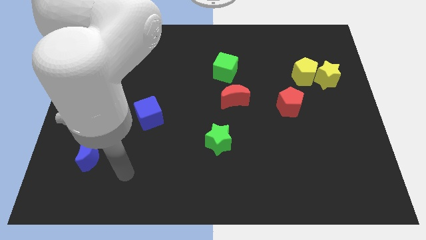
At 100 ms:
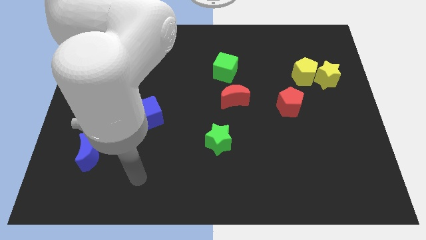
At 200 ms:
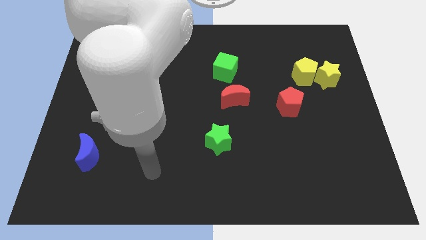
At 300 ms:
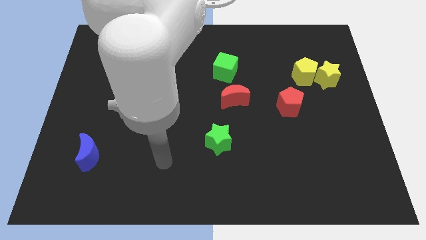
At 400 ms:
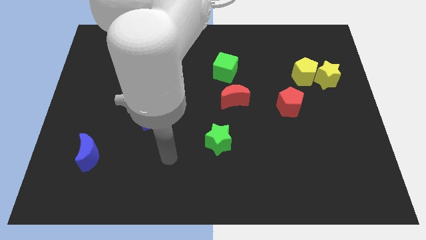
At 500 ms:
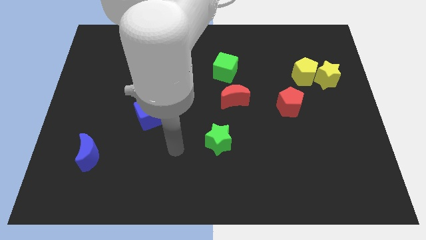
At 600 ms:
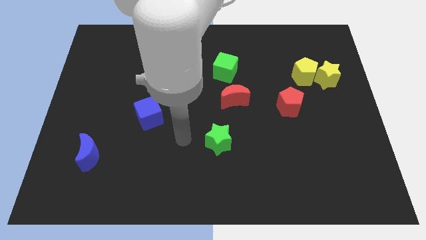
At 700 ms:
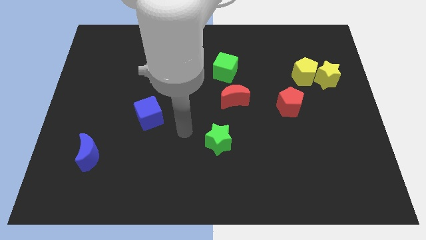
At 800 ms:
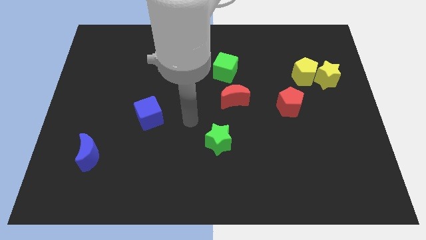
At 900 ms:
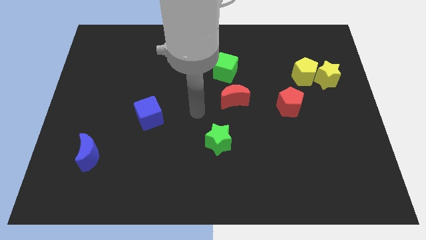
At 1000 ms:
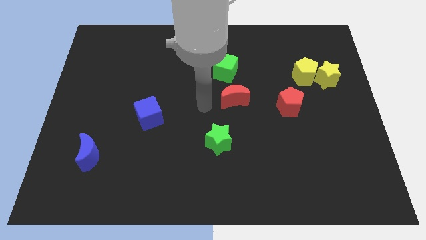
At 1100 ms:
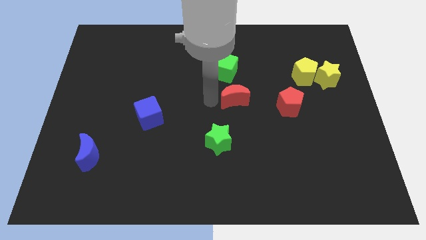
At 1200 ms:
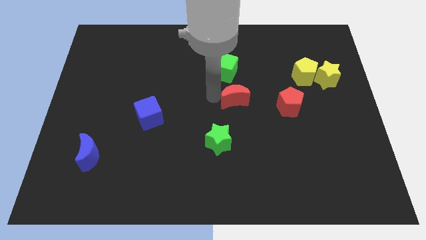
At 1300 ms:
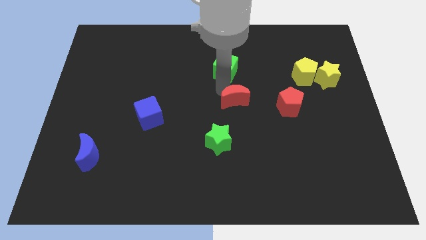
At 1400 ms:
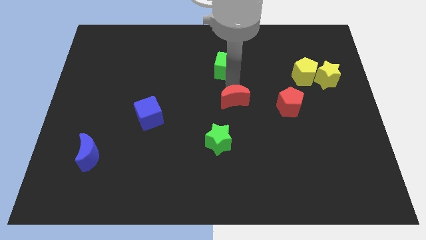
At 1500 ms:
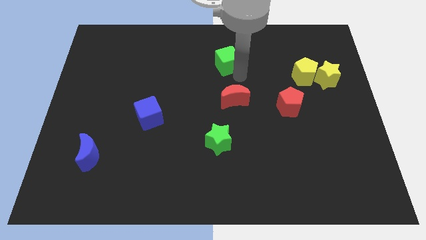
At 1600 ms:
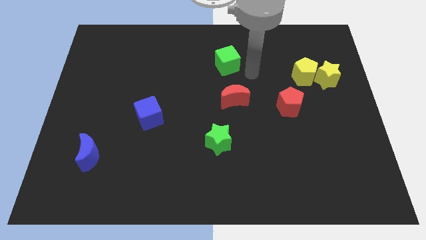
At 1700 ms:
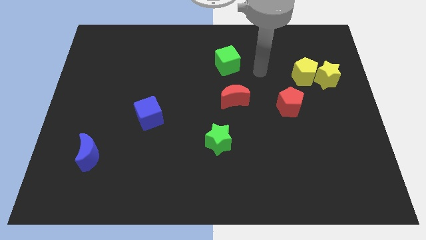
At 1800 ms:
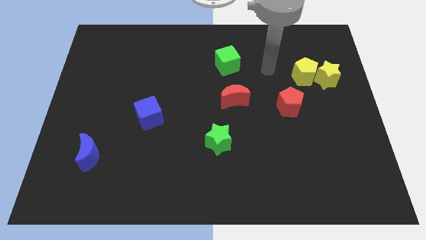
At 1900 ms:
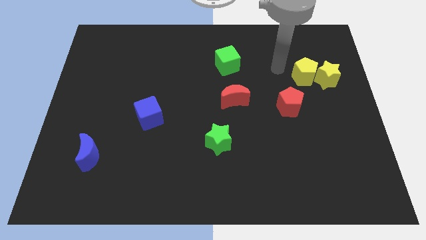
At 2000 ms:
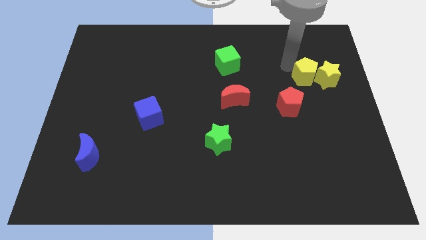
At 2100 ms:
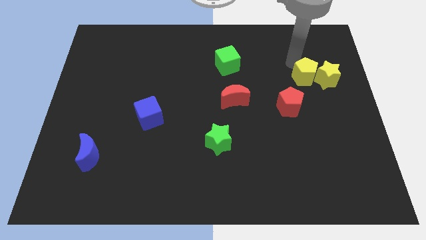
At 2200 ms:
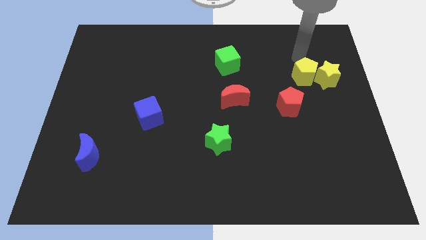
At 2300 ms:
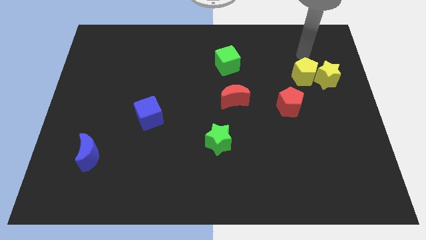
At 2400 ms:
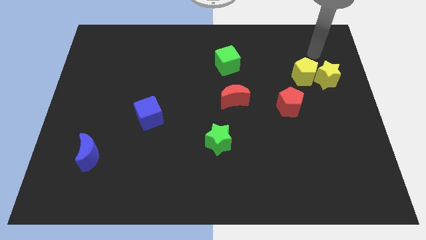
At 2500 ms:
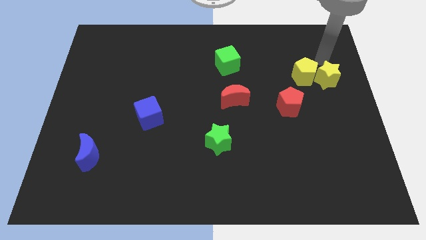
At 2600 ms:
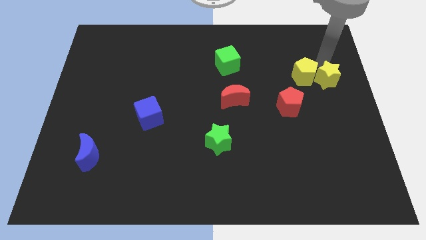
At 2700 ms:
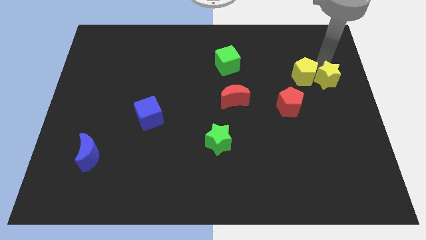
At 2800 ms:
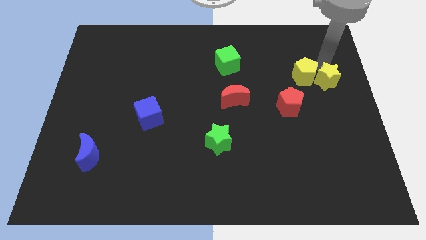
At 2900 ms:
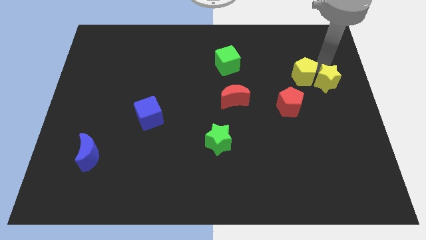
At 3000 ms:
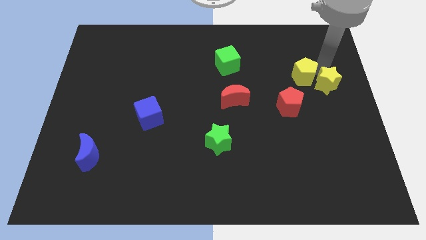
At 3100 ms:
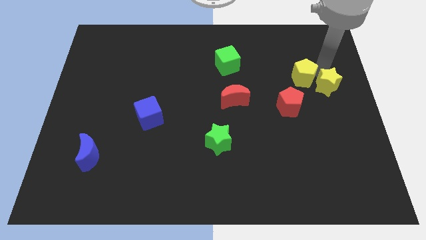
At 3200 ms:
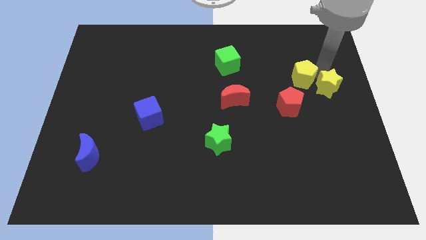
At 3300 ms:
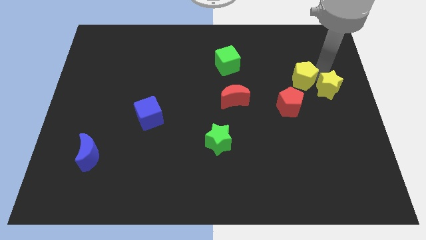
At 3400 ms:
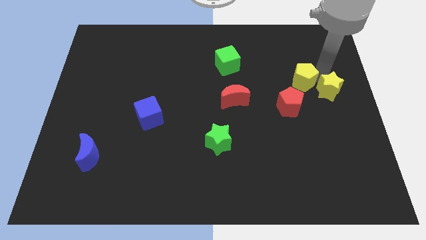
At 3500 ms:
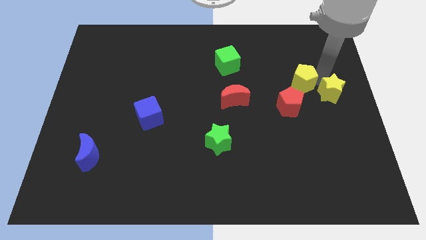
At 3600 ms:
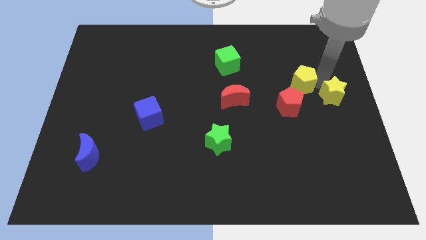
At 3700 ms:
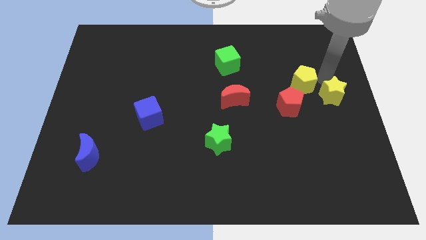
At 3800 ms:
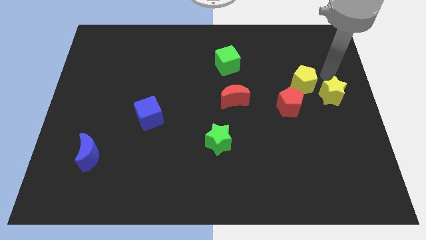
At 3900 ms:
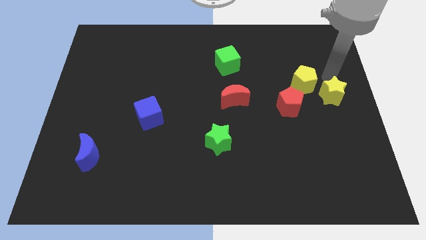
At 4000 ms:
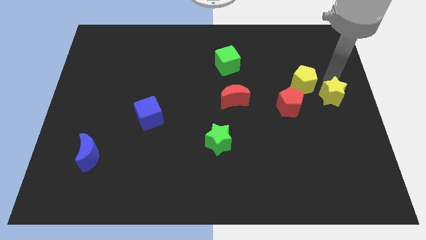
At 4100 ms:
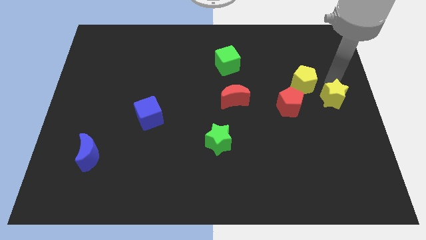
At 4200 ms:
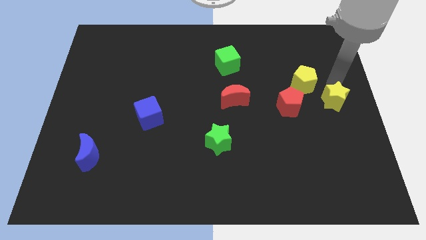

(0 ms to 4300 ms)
push the yellow star downwards slightly

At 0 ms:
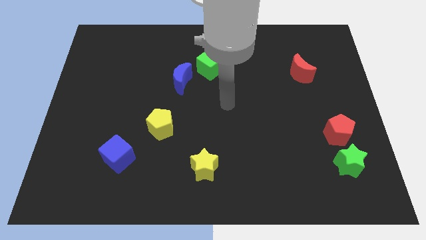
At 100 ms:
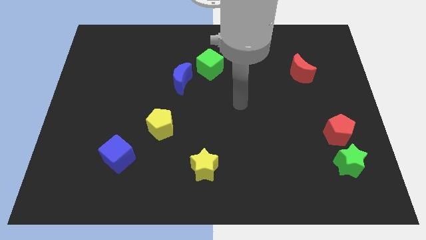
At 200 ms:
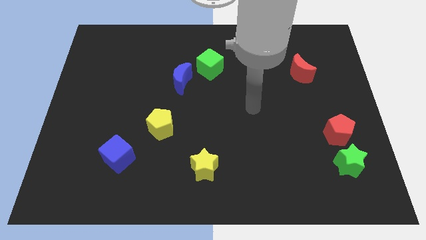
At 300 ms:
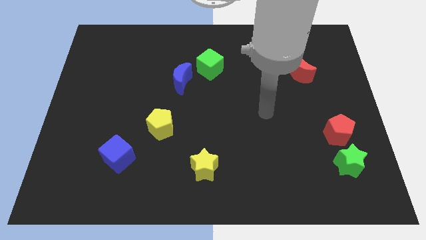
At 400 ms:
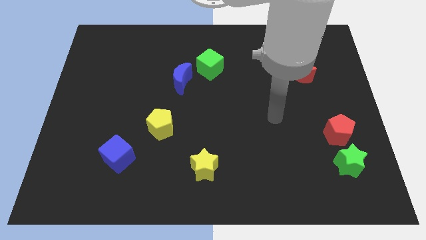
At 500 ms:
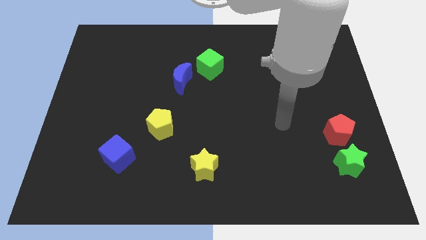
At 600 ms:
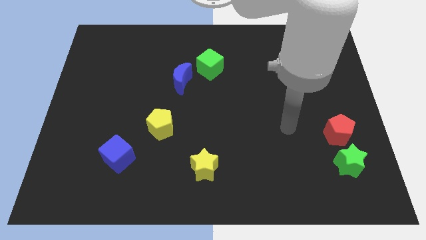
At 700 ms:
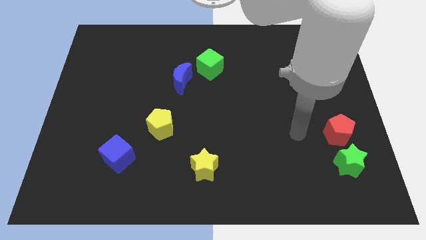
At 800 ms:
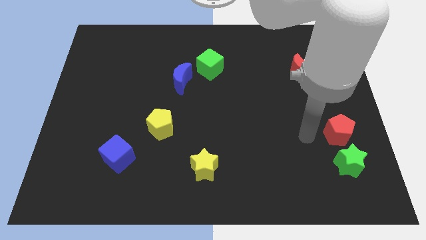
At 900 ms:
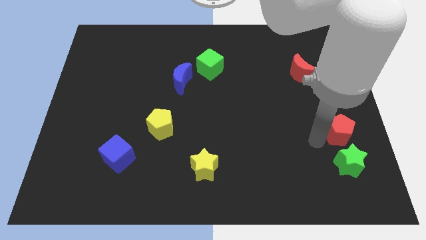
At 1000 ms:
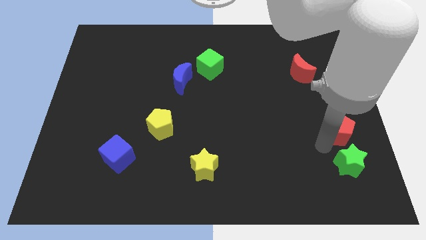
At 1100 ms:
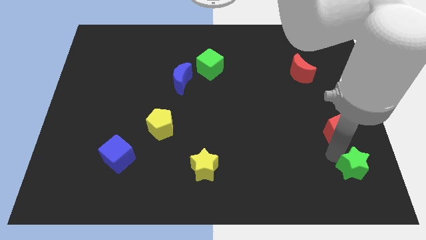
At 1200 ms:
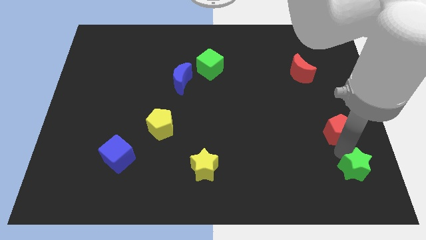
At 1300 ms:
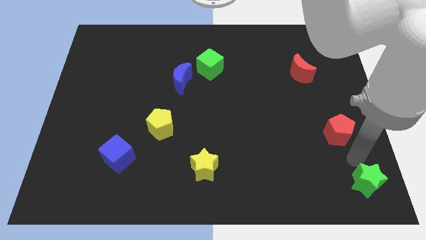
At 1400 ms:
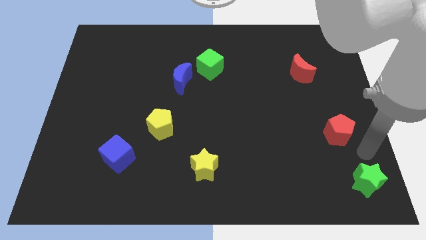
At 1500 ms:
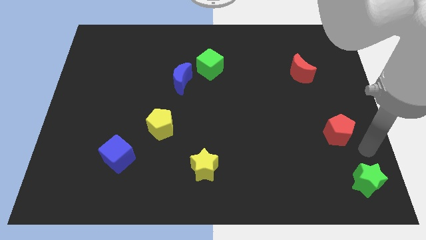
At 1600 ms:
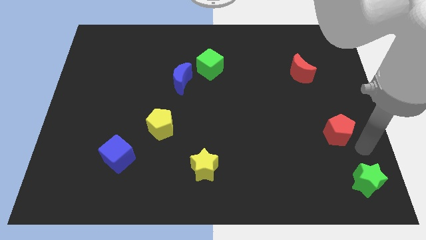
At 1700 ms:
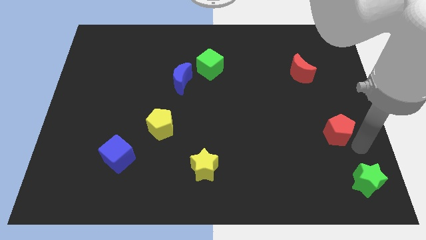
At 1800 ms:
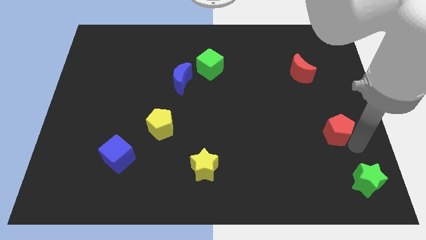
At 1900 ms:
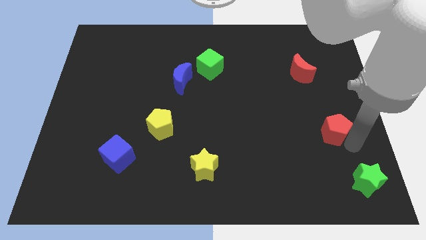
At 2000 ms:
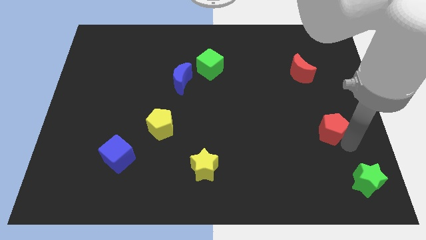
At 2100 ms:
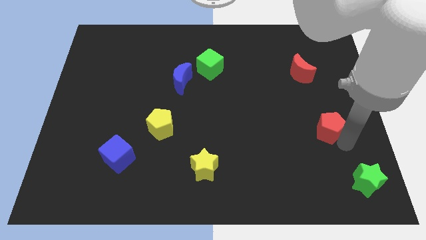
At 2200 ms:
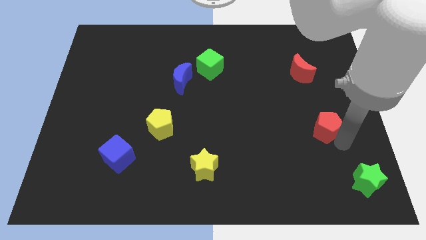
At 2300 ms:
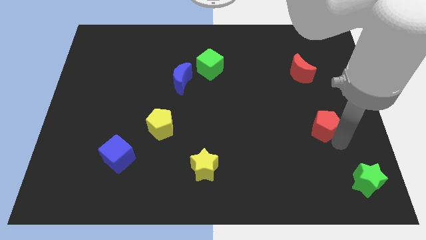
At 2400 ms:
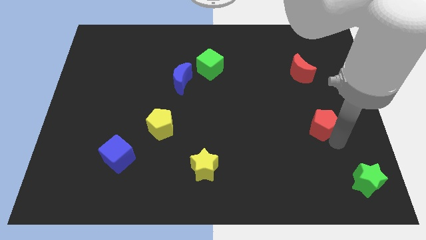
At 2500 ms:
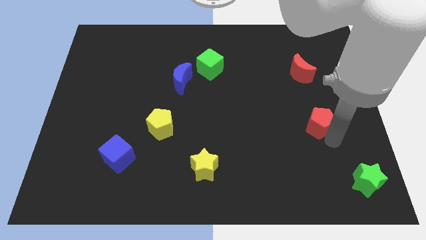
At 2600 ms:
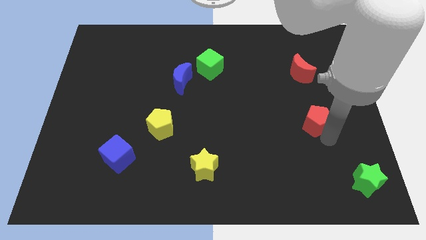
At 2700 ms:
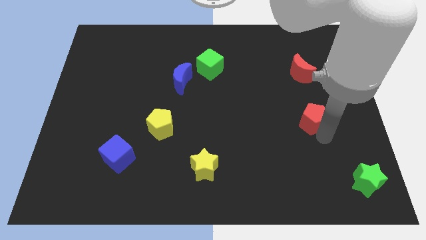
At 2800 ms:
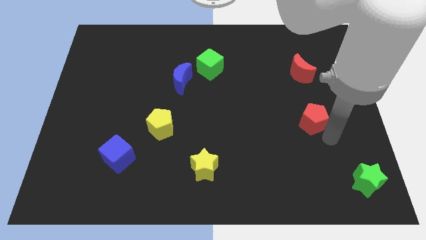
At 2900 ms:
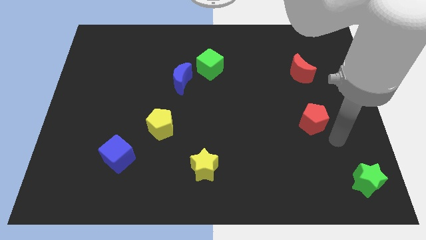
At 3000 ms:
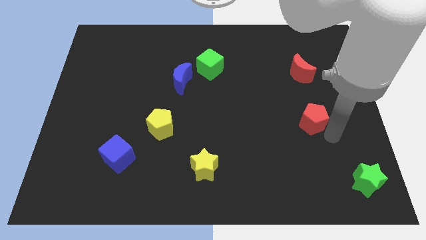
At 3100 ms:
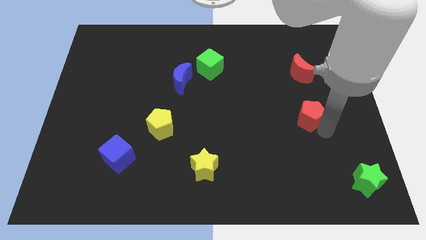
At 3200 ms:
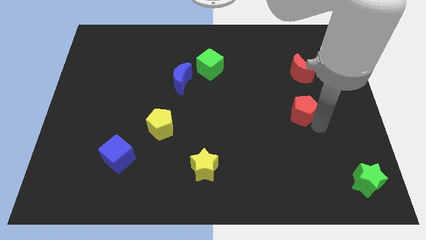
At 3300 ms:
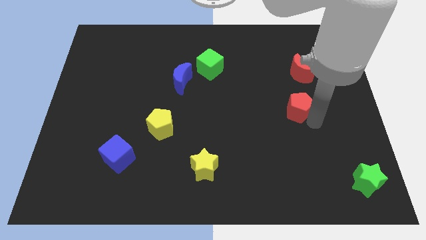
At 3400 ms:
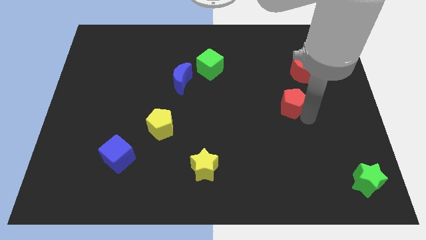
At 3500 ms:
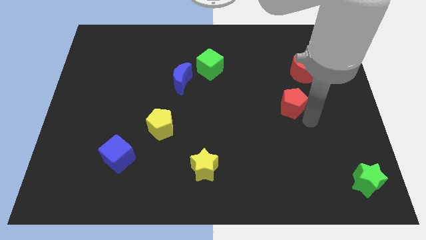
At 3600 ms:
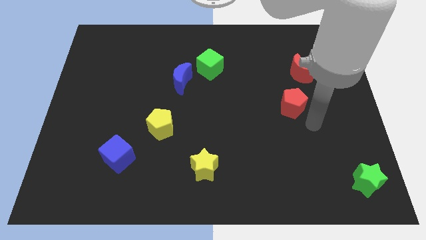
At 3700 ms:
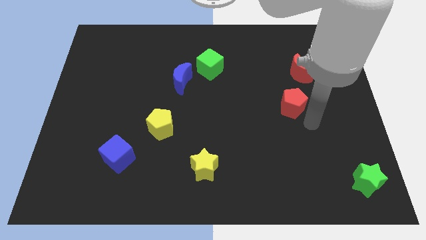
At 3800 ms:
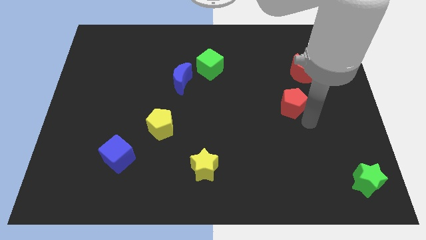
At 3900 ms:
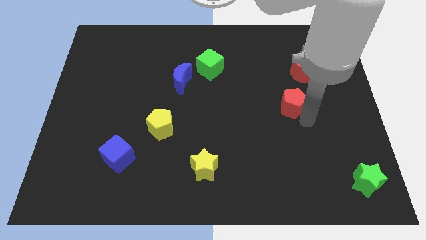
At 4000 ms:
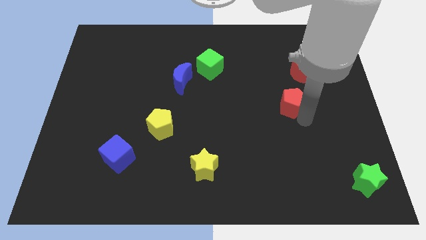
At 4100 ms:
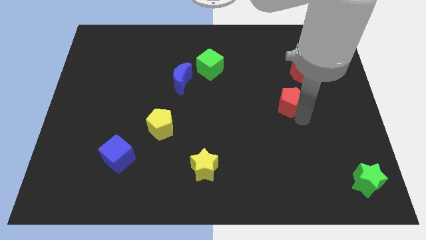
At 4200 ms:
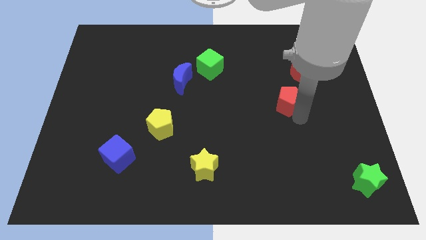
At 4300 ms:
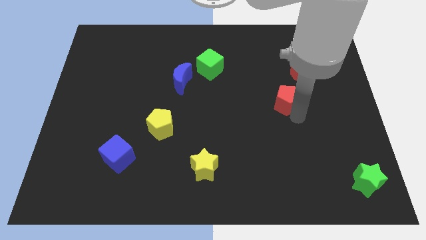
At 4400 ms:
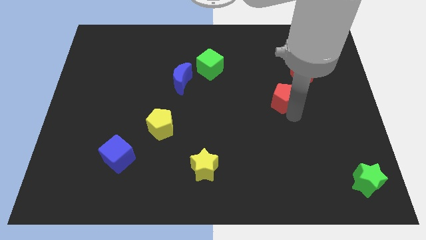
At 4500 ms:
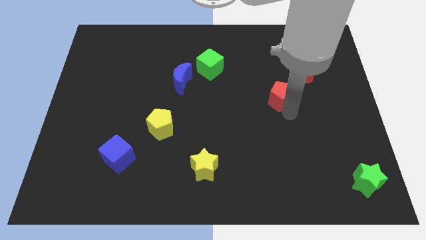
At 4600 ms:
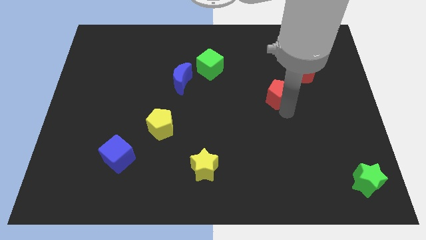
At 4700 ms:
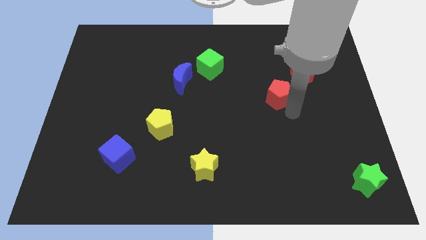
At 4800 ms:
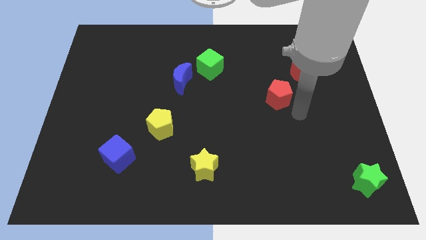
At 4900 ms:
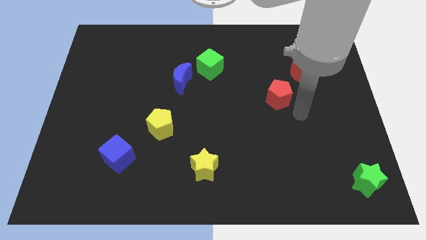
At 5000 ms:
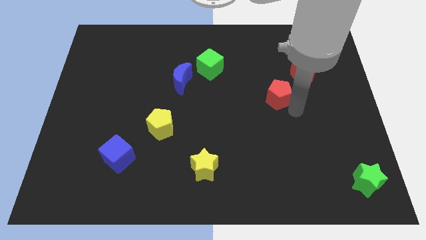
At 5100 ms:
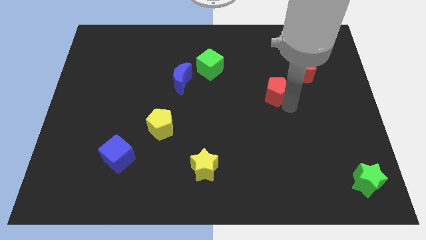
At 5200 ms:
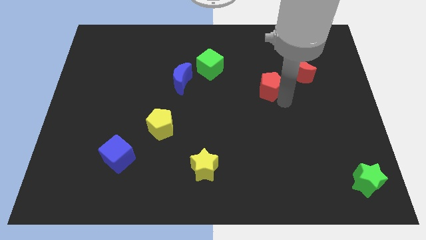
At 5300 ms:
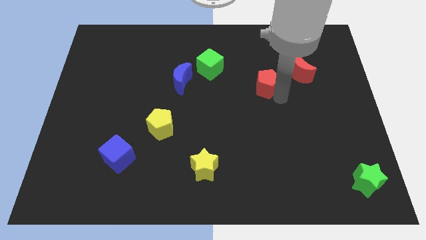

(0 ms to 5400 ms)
slide the red pentagon diagonally up and to the left
